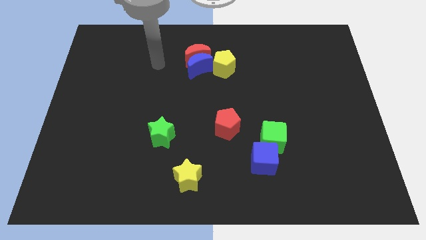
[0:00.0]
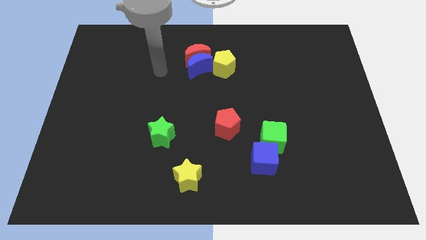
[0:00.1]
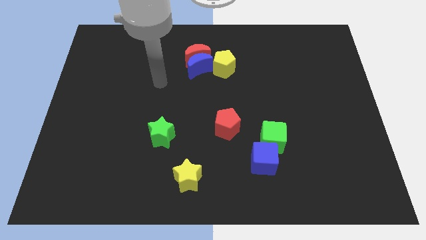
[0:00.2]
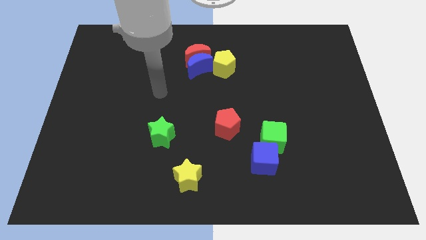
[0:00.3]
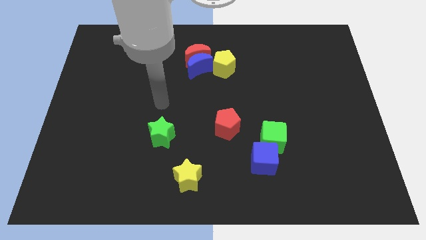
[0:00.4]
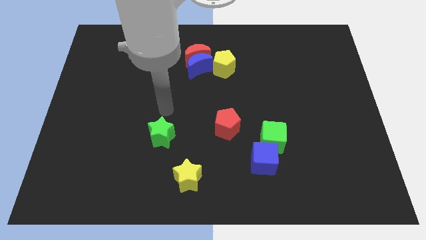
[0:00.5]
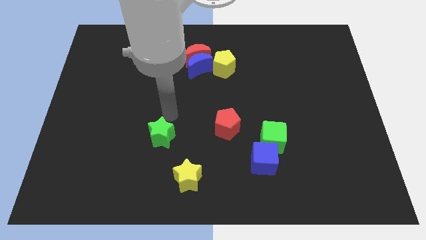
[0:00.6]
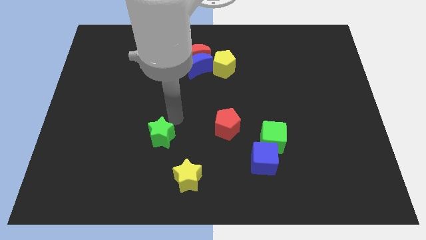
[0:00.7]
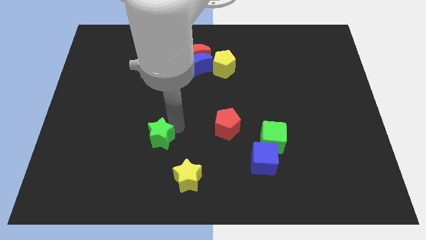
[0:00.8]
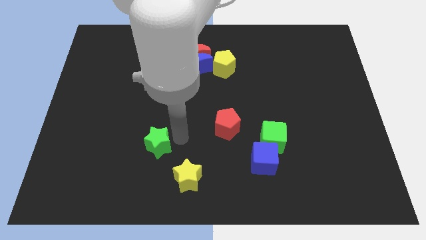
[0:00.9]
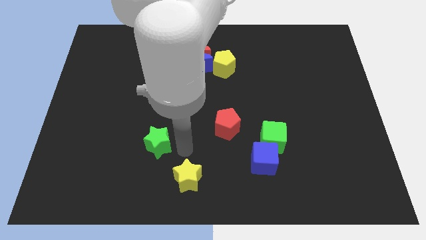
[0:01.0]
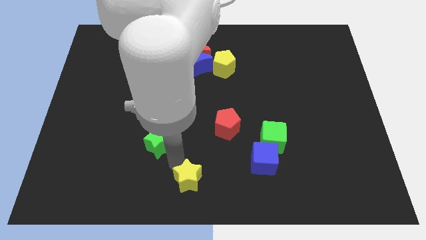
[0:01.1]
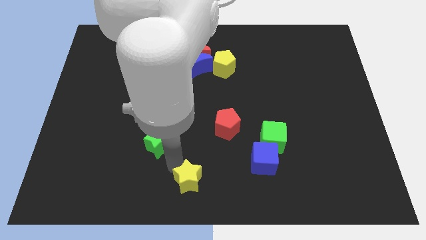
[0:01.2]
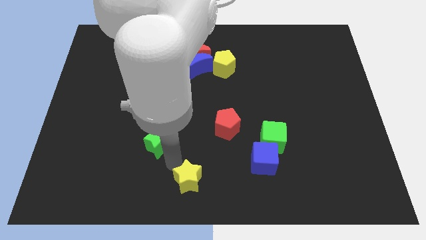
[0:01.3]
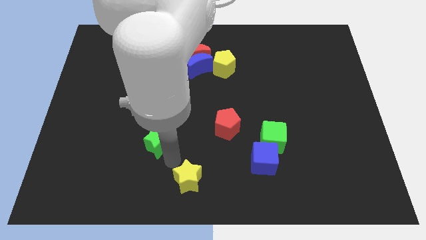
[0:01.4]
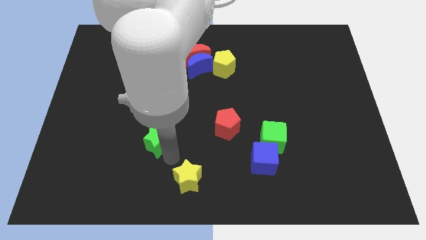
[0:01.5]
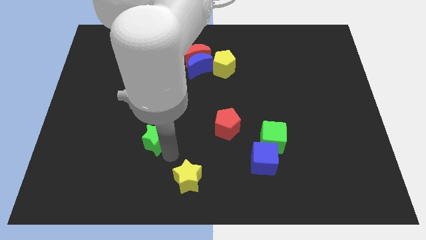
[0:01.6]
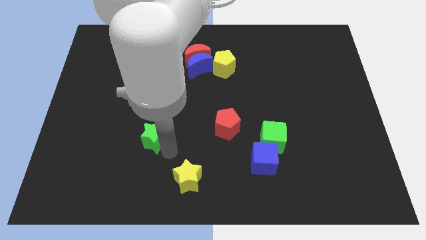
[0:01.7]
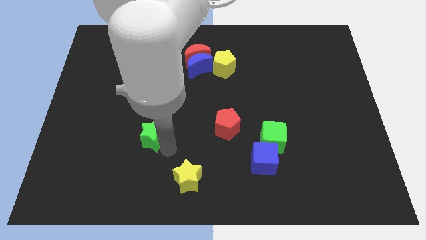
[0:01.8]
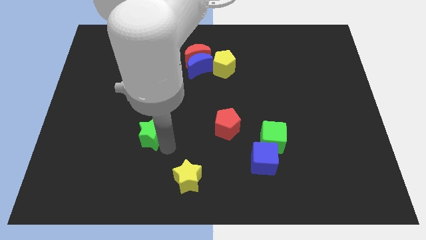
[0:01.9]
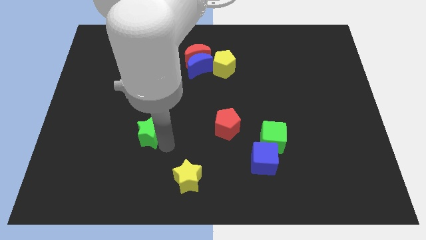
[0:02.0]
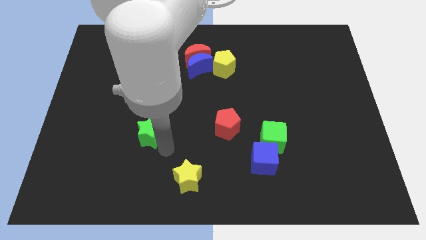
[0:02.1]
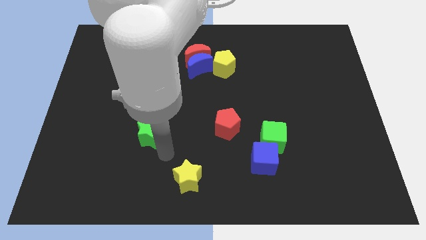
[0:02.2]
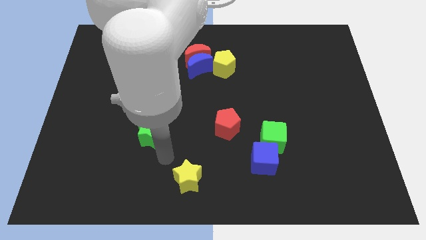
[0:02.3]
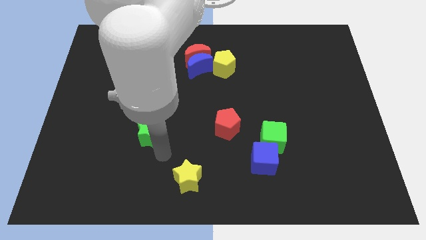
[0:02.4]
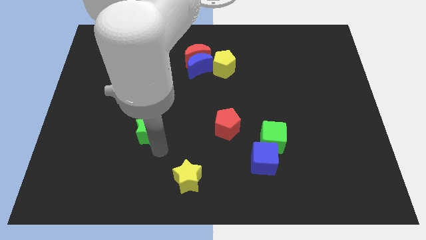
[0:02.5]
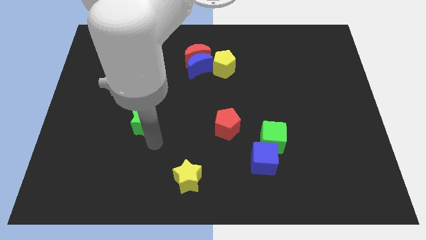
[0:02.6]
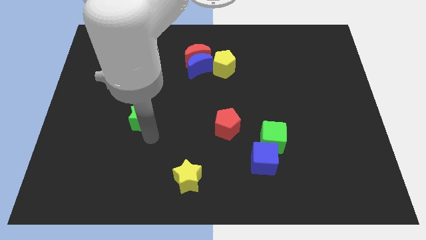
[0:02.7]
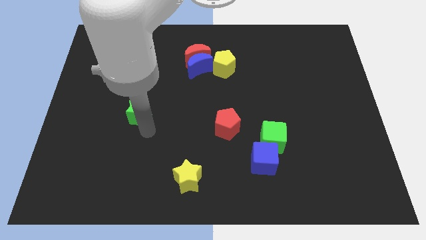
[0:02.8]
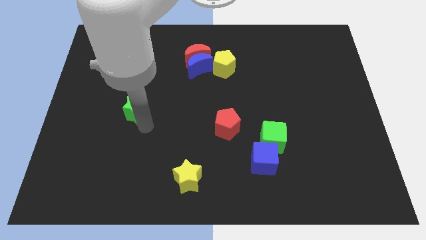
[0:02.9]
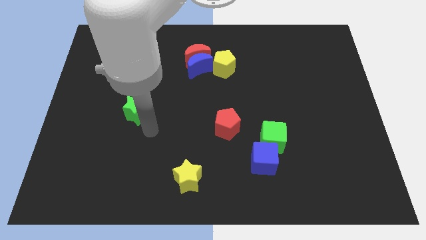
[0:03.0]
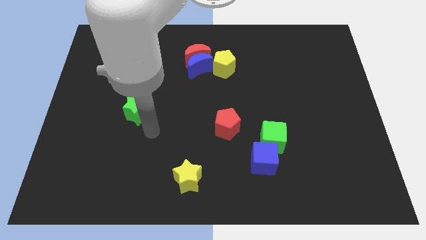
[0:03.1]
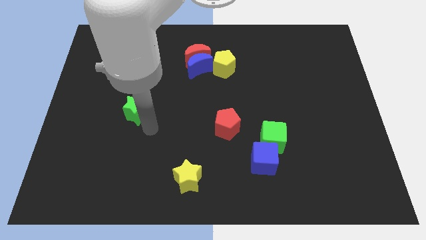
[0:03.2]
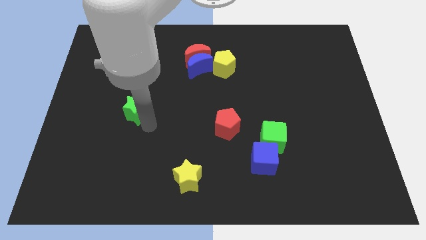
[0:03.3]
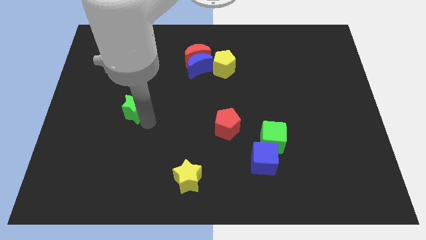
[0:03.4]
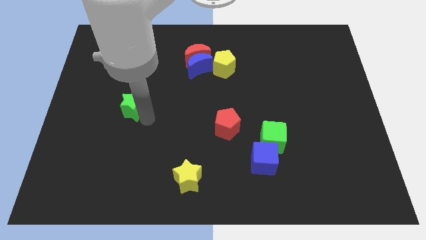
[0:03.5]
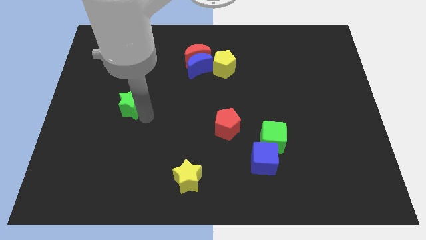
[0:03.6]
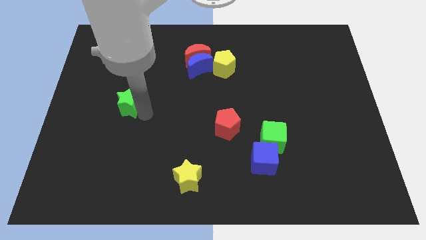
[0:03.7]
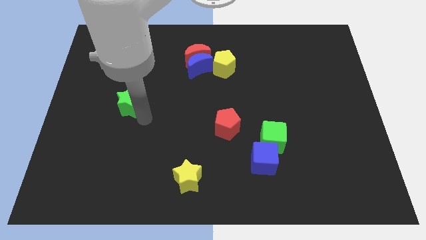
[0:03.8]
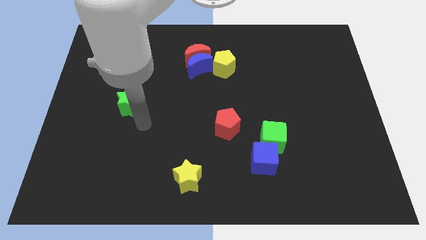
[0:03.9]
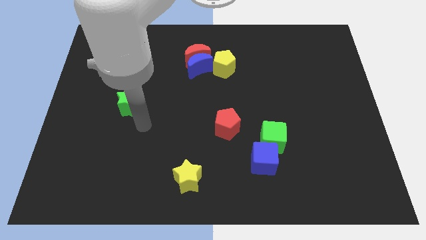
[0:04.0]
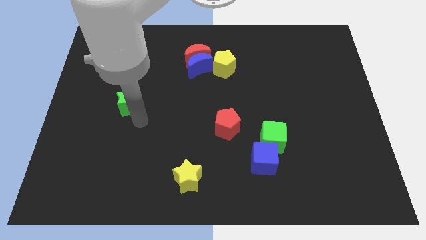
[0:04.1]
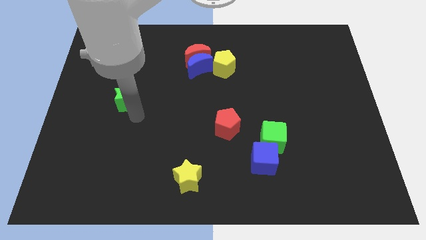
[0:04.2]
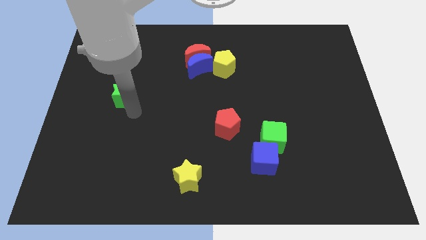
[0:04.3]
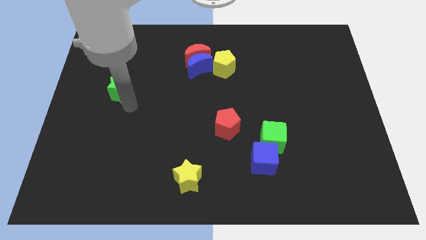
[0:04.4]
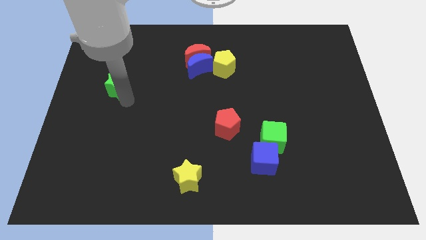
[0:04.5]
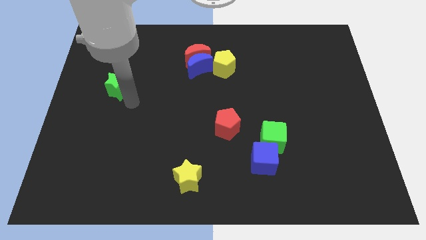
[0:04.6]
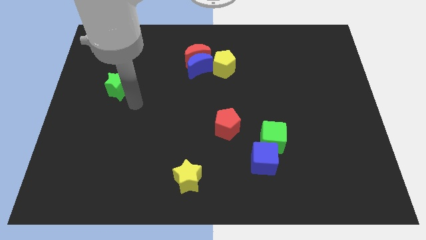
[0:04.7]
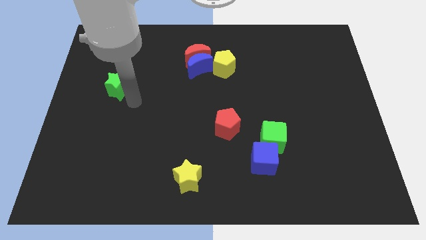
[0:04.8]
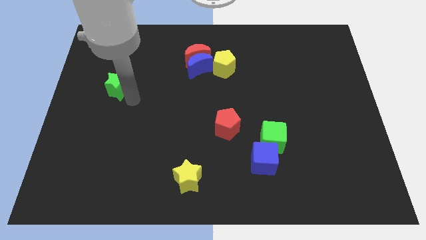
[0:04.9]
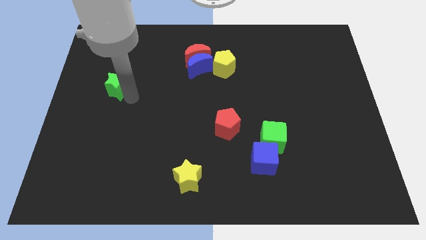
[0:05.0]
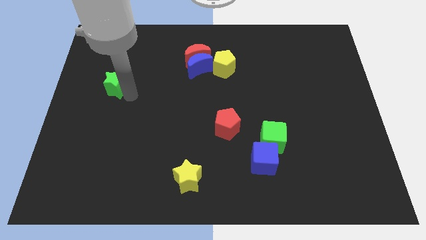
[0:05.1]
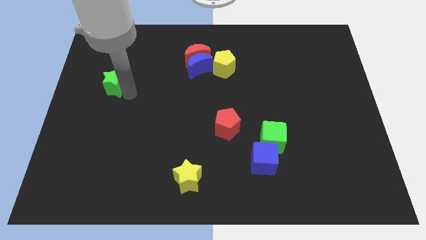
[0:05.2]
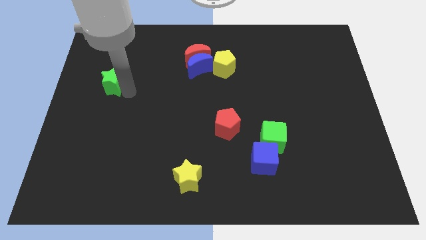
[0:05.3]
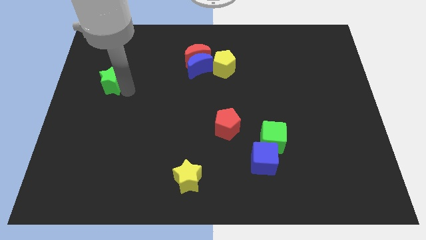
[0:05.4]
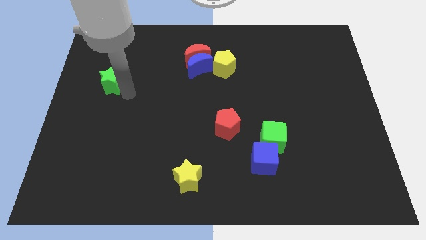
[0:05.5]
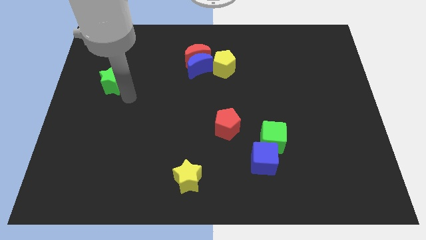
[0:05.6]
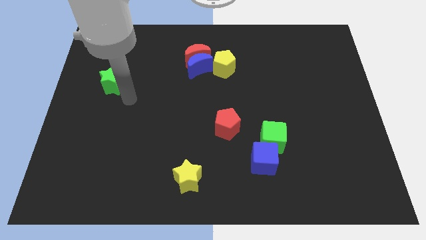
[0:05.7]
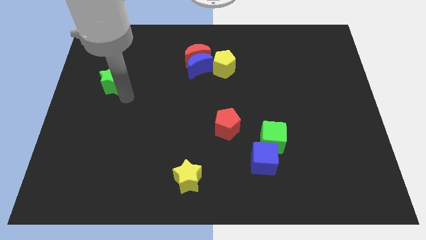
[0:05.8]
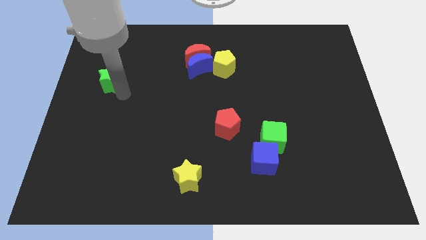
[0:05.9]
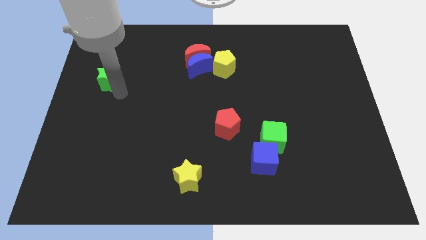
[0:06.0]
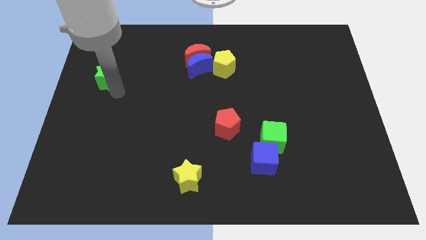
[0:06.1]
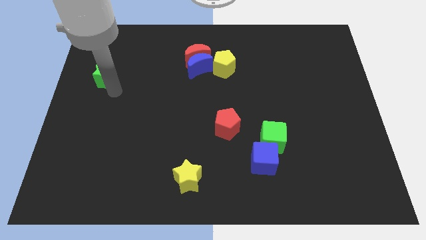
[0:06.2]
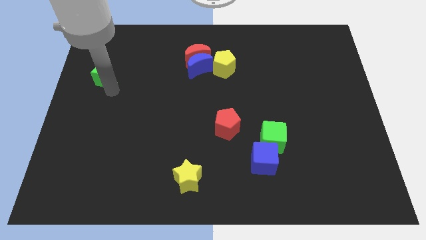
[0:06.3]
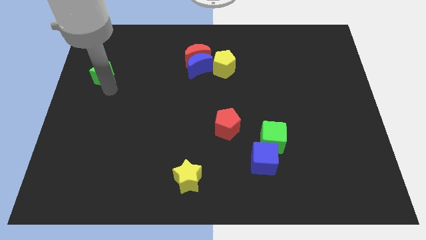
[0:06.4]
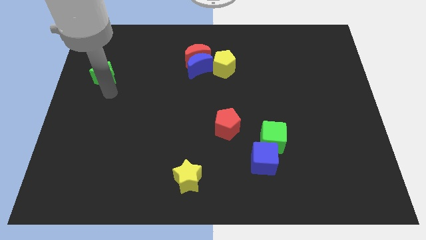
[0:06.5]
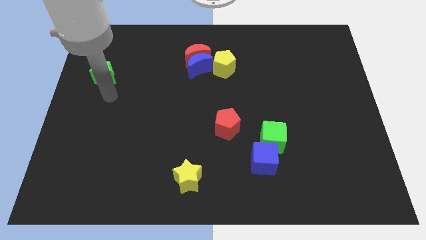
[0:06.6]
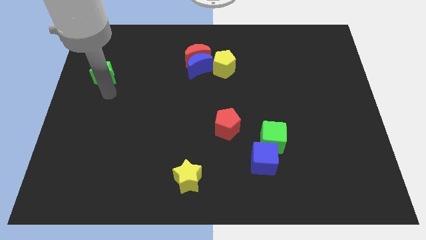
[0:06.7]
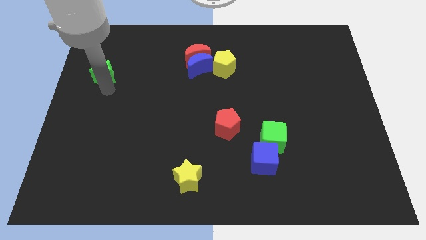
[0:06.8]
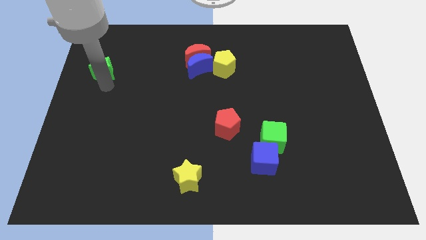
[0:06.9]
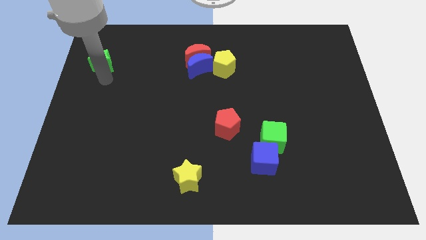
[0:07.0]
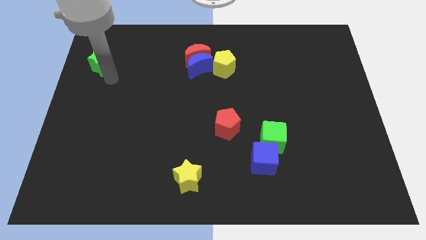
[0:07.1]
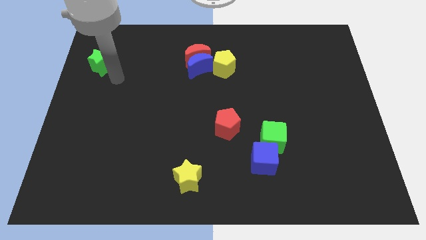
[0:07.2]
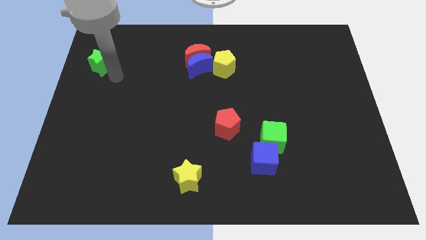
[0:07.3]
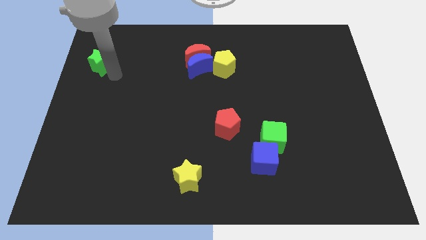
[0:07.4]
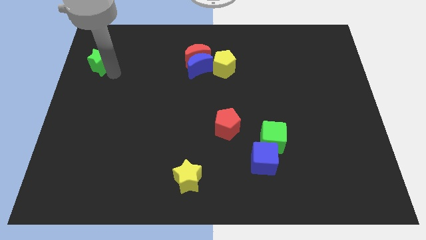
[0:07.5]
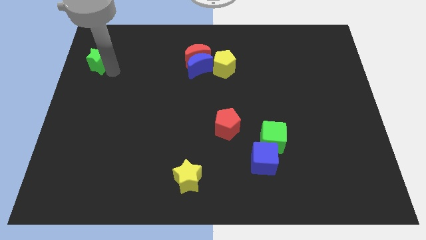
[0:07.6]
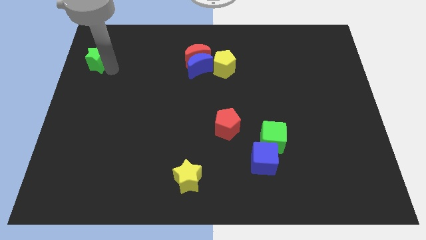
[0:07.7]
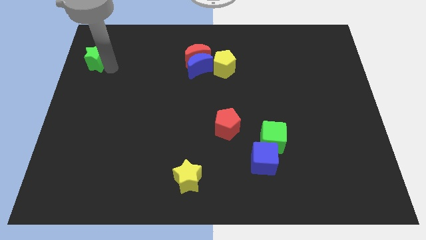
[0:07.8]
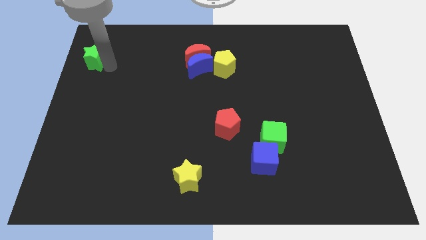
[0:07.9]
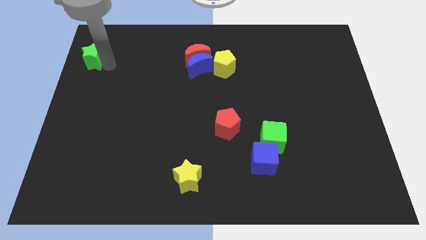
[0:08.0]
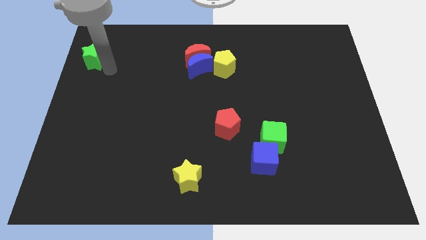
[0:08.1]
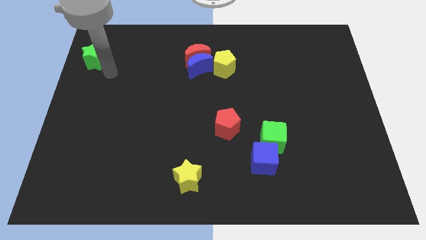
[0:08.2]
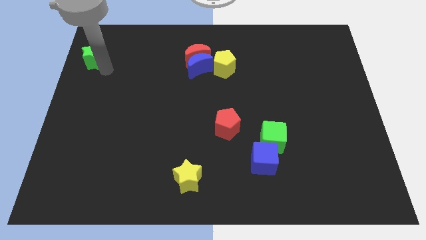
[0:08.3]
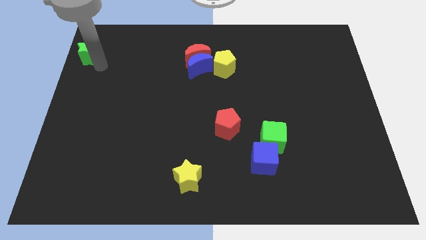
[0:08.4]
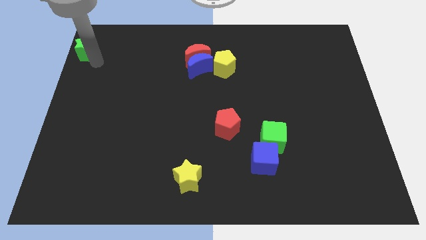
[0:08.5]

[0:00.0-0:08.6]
push the green star to the upper left corner
